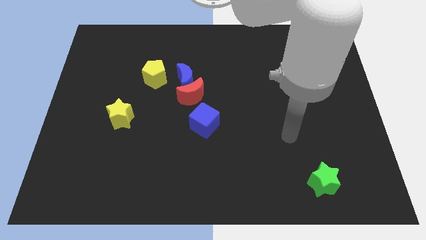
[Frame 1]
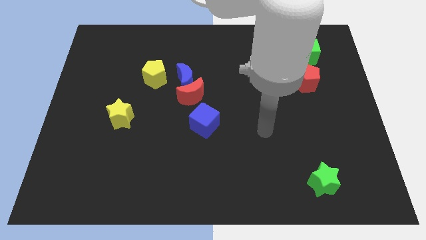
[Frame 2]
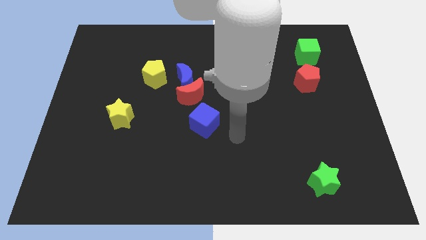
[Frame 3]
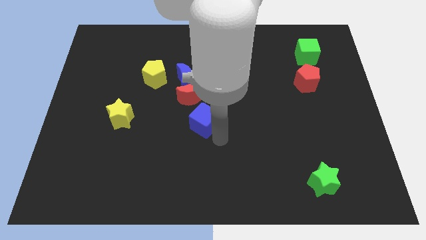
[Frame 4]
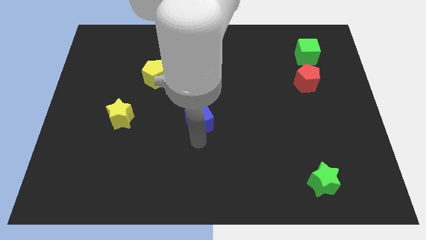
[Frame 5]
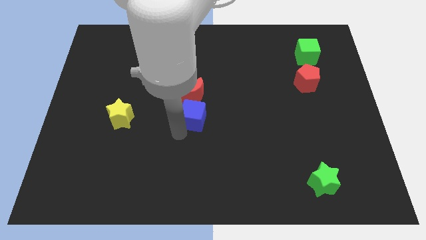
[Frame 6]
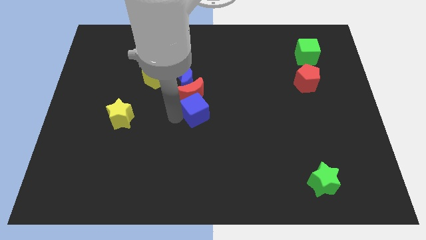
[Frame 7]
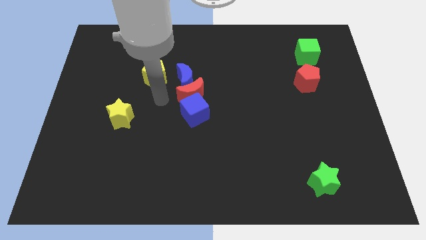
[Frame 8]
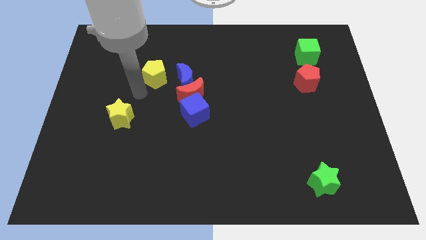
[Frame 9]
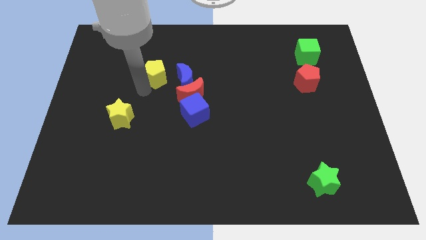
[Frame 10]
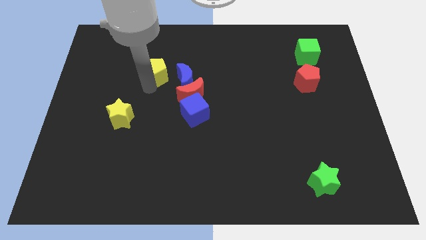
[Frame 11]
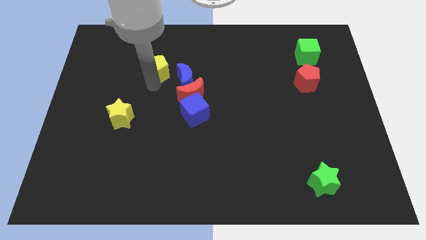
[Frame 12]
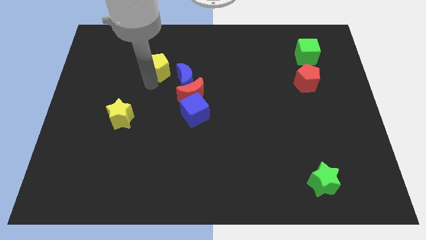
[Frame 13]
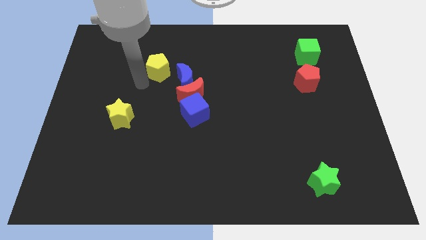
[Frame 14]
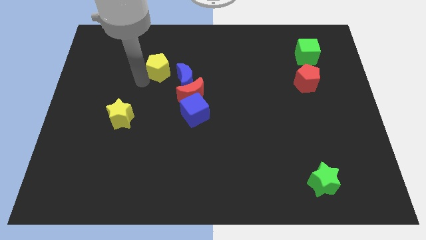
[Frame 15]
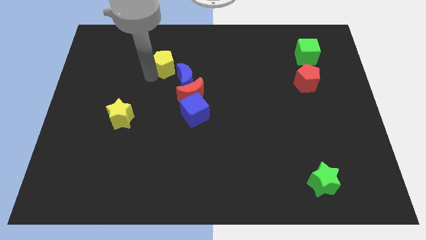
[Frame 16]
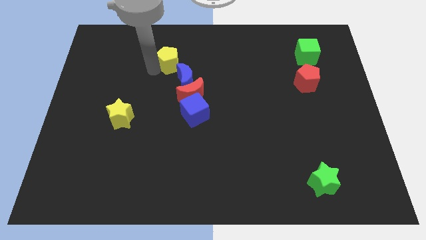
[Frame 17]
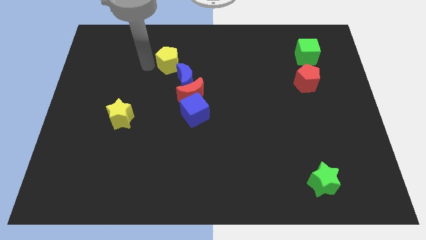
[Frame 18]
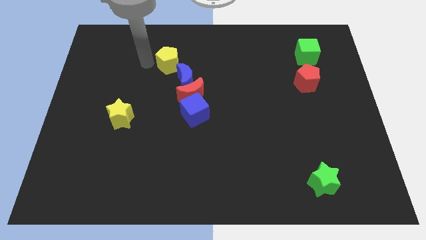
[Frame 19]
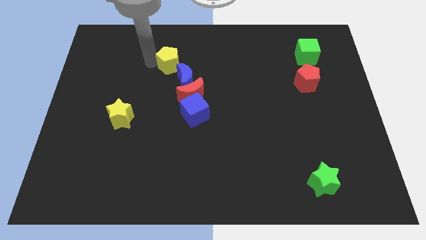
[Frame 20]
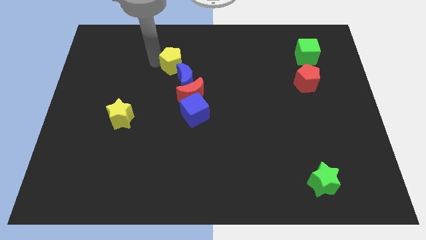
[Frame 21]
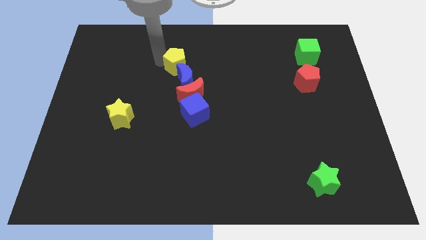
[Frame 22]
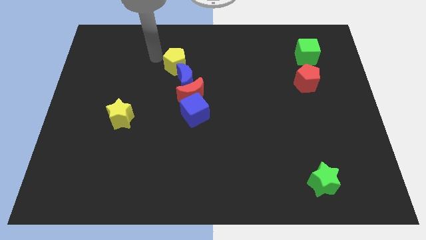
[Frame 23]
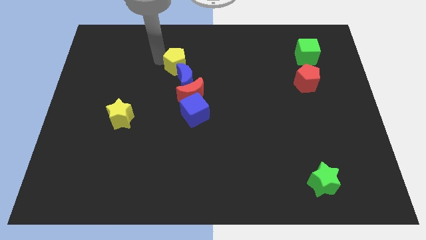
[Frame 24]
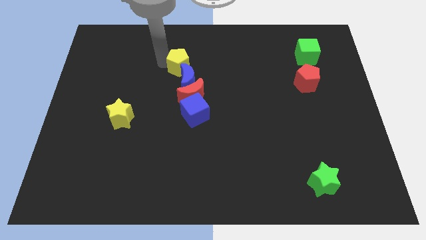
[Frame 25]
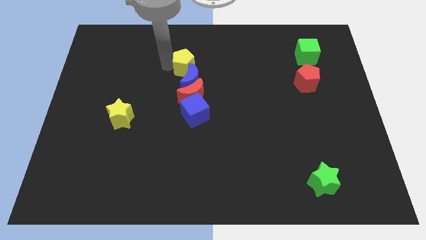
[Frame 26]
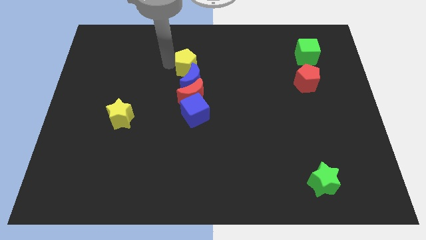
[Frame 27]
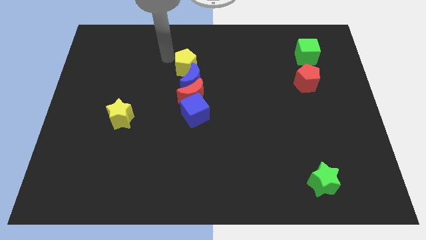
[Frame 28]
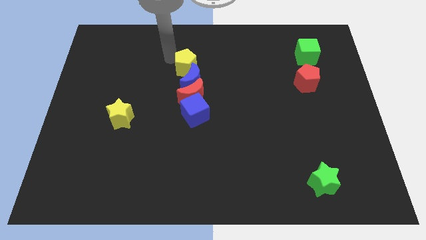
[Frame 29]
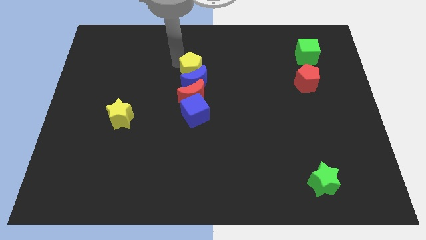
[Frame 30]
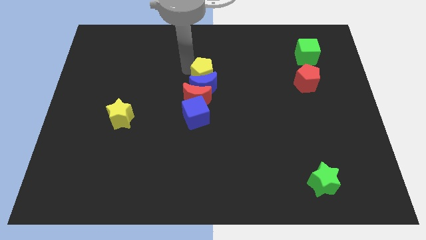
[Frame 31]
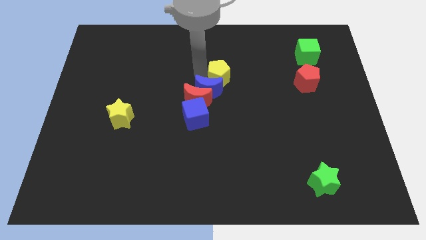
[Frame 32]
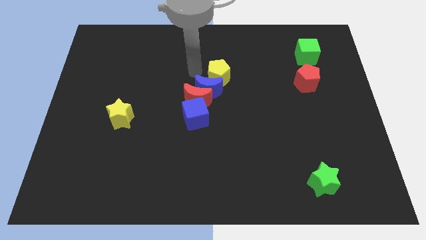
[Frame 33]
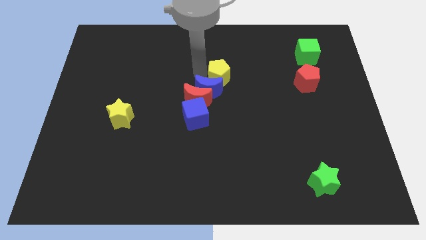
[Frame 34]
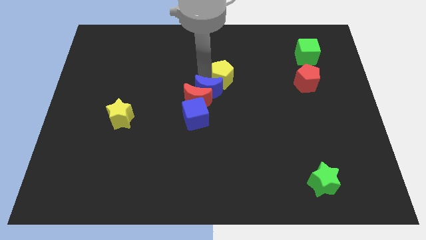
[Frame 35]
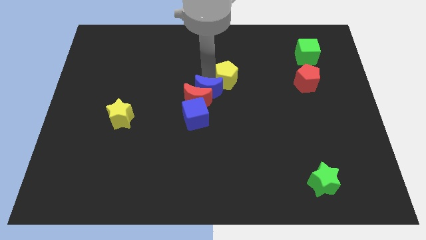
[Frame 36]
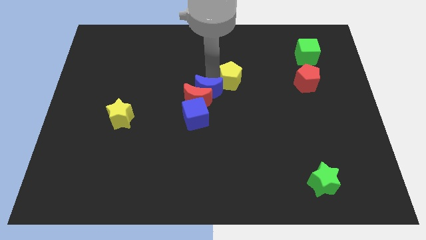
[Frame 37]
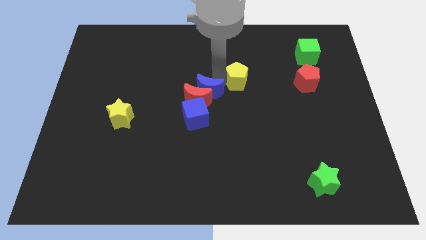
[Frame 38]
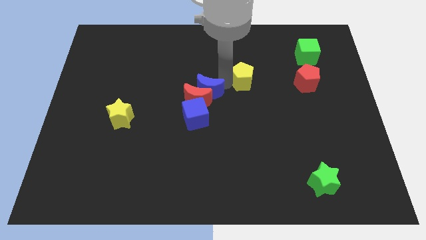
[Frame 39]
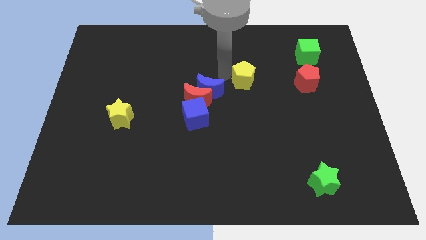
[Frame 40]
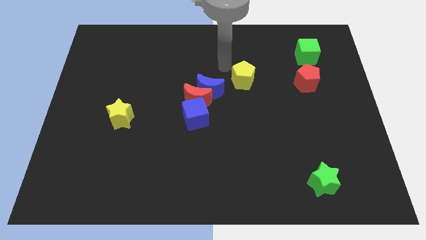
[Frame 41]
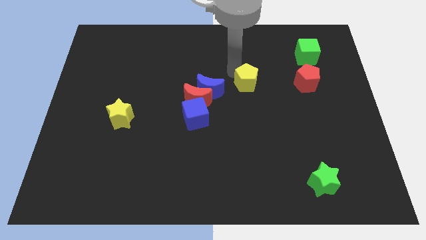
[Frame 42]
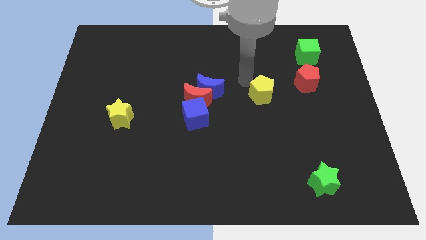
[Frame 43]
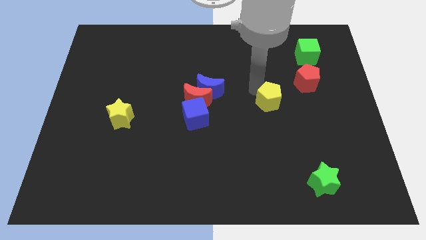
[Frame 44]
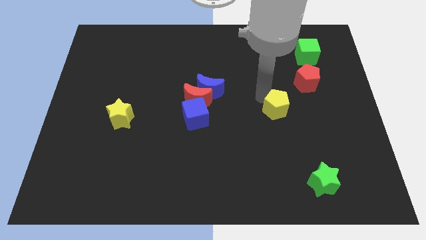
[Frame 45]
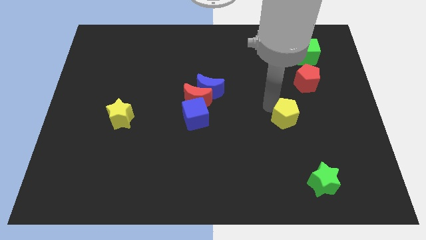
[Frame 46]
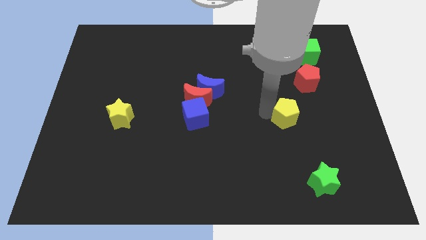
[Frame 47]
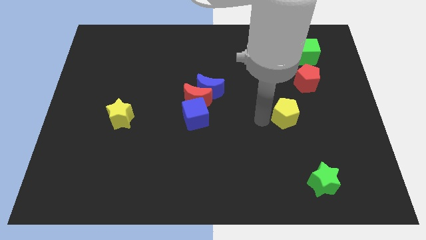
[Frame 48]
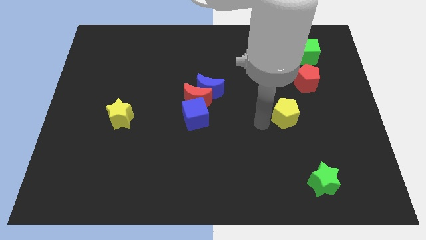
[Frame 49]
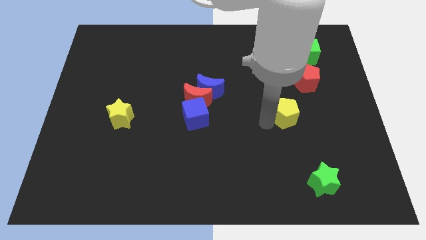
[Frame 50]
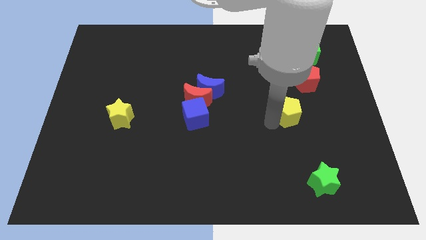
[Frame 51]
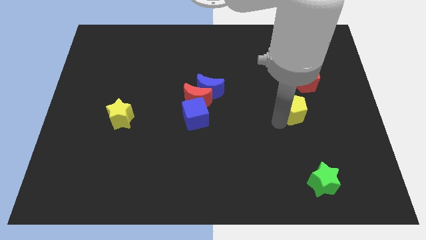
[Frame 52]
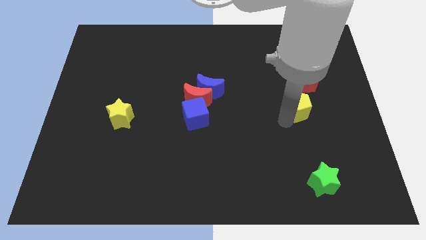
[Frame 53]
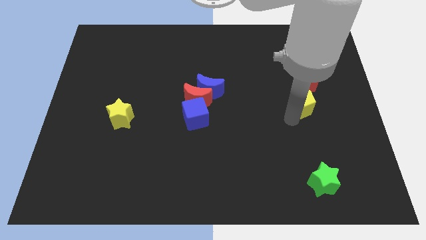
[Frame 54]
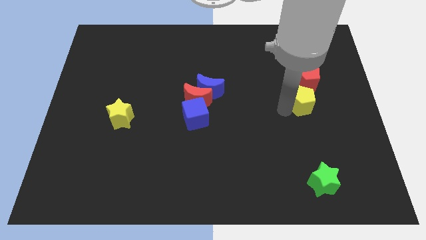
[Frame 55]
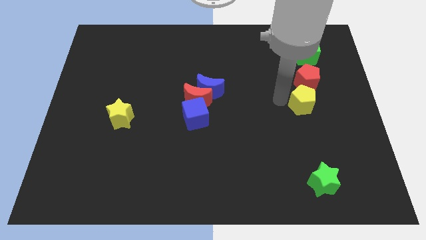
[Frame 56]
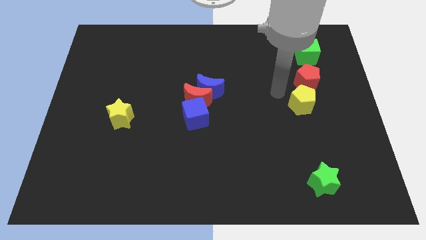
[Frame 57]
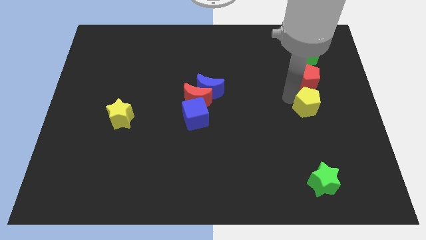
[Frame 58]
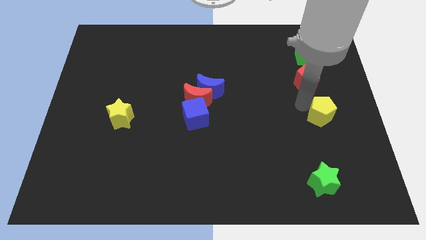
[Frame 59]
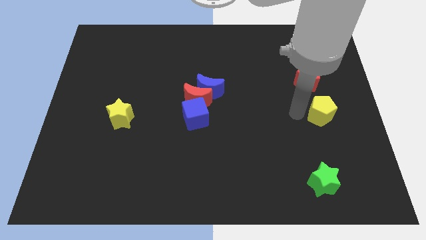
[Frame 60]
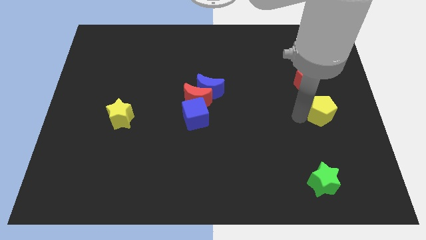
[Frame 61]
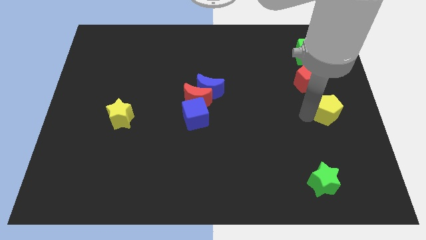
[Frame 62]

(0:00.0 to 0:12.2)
put the yellow pentagon to the right side of the board
